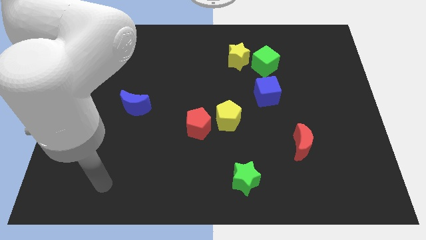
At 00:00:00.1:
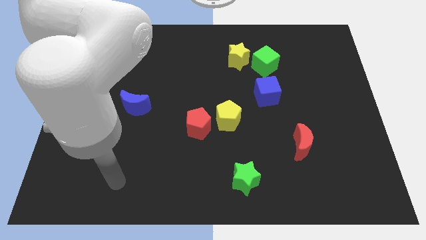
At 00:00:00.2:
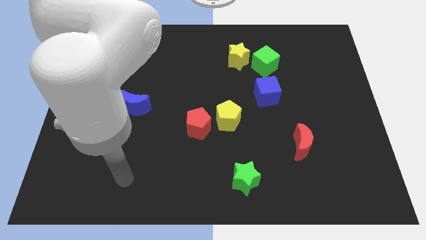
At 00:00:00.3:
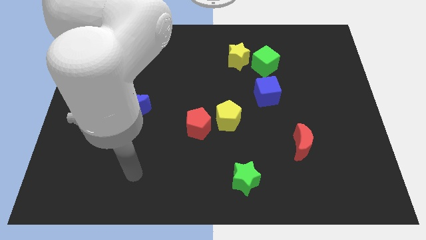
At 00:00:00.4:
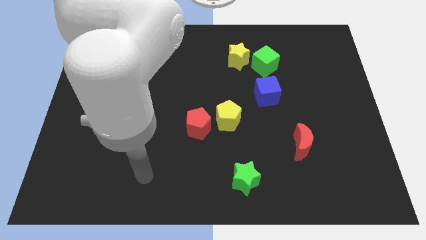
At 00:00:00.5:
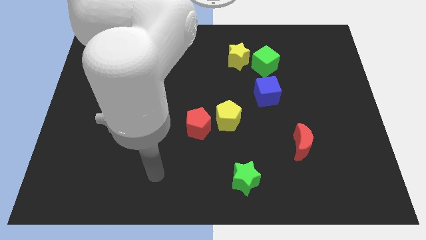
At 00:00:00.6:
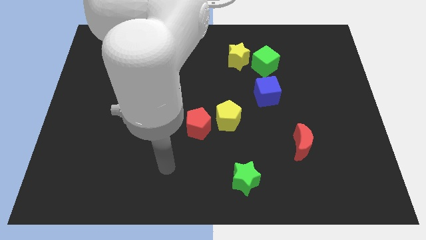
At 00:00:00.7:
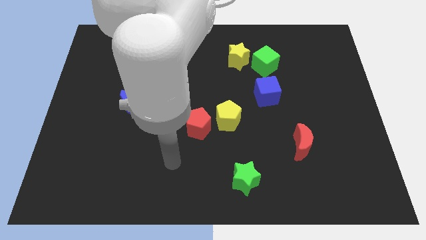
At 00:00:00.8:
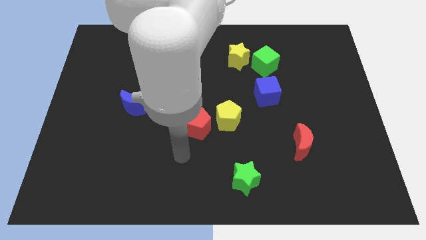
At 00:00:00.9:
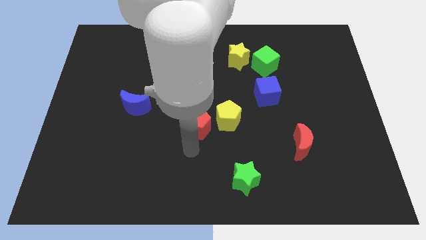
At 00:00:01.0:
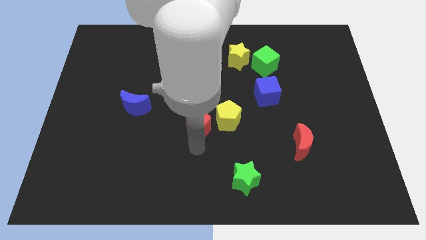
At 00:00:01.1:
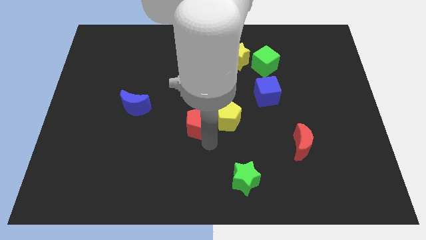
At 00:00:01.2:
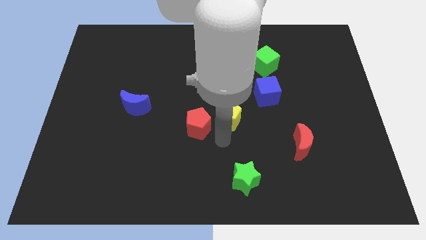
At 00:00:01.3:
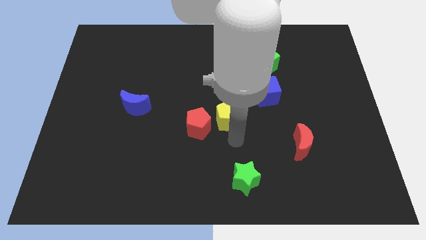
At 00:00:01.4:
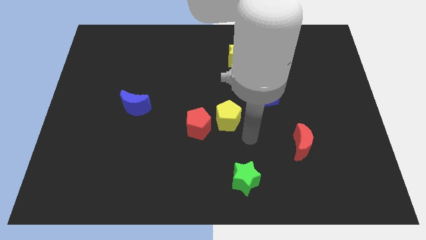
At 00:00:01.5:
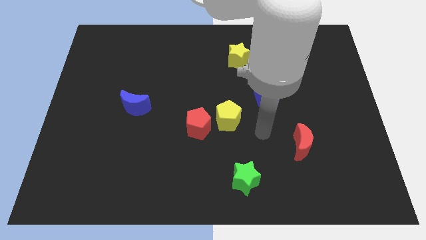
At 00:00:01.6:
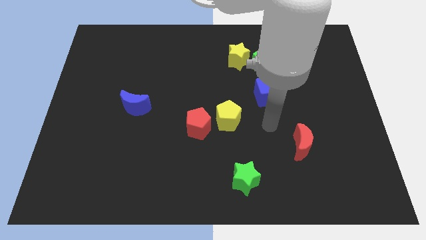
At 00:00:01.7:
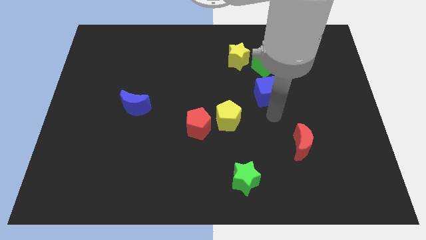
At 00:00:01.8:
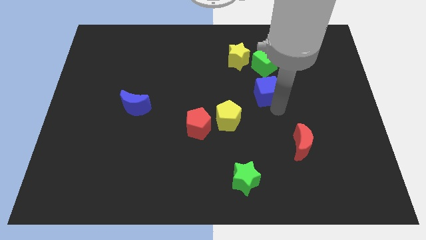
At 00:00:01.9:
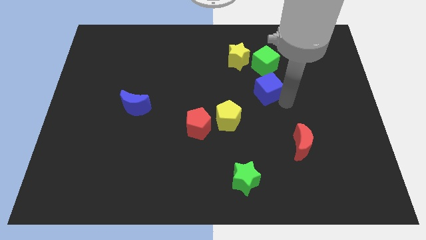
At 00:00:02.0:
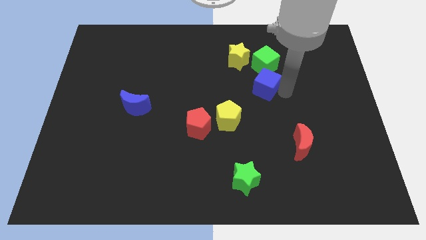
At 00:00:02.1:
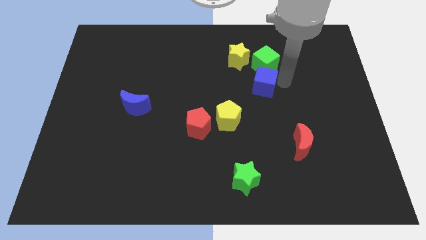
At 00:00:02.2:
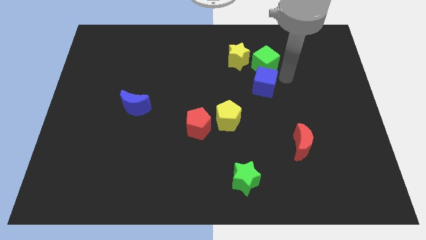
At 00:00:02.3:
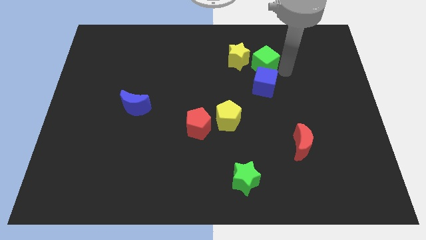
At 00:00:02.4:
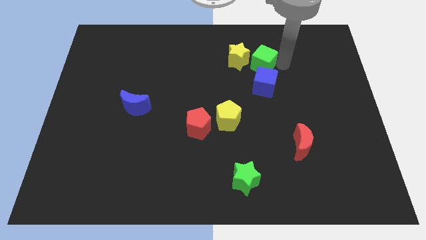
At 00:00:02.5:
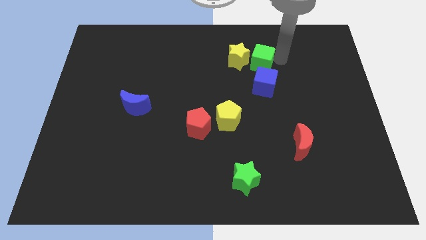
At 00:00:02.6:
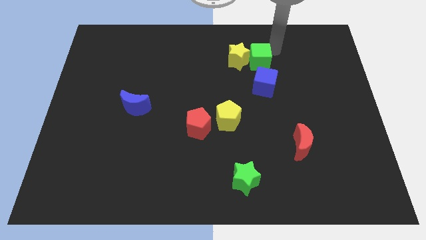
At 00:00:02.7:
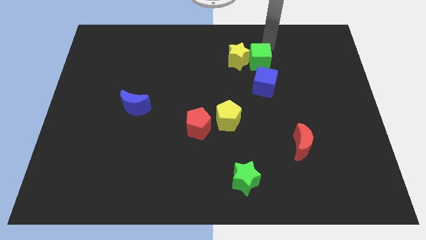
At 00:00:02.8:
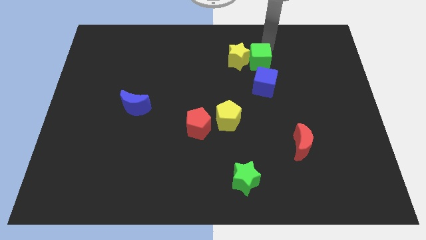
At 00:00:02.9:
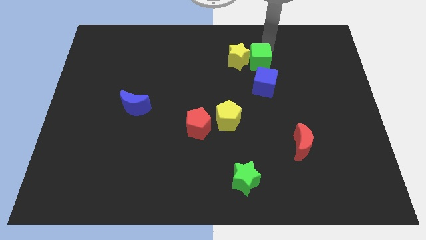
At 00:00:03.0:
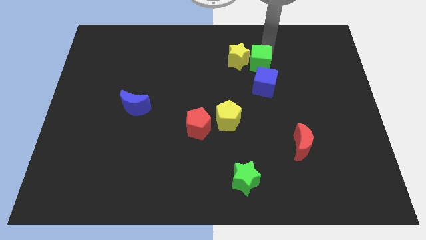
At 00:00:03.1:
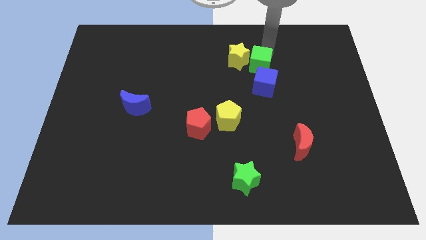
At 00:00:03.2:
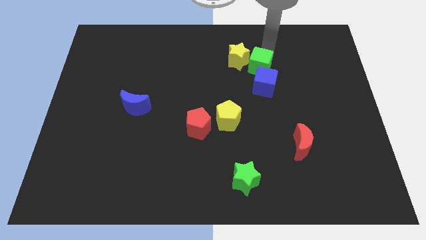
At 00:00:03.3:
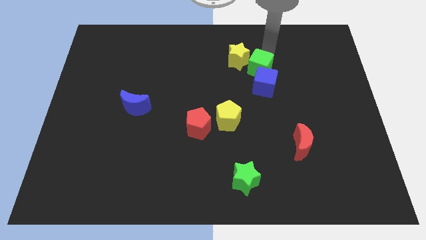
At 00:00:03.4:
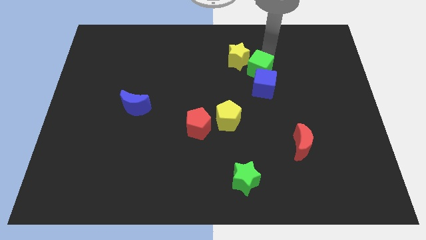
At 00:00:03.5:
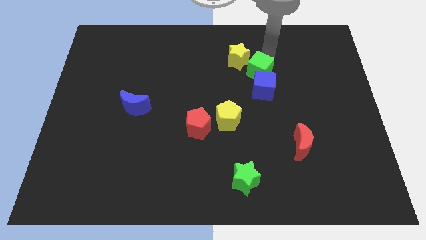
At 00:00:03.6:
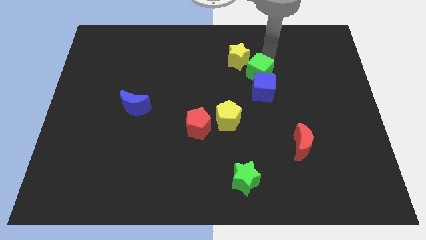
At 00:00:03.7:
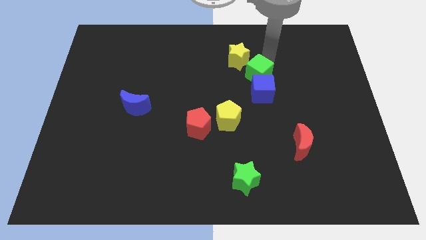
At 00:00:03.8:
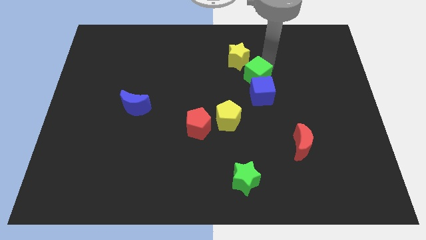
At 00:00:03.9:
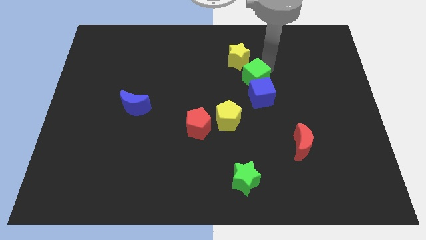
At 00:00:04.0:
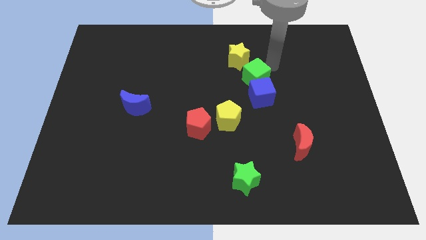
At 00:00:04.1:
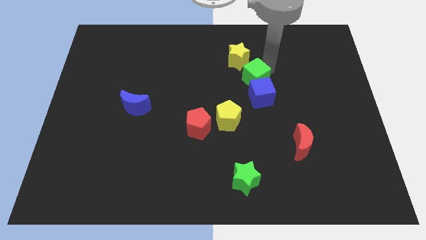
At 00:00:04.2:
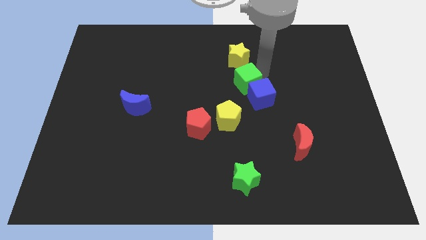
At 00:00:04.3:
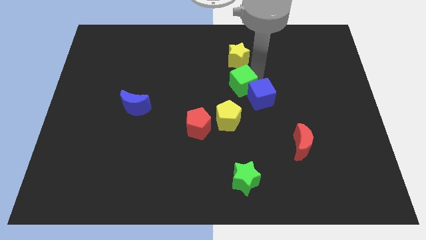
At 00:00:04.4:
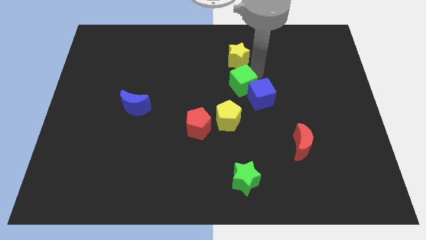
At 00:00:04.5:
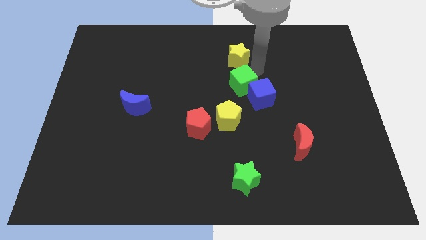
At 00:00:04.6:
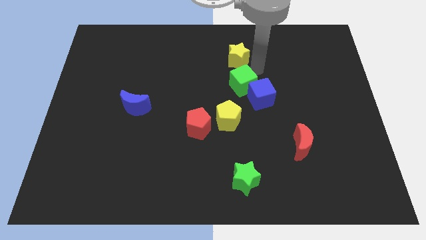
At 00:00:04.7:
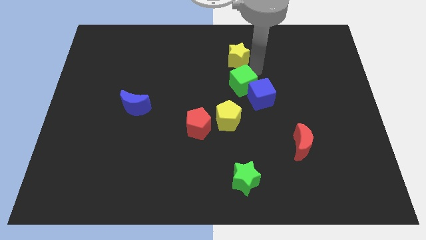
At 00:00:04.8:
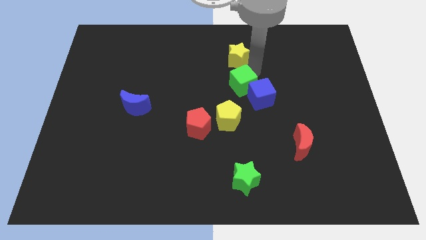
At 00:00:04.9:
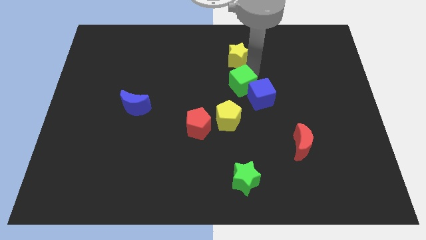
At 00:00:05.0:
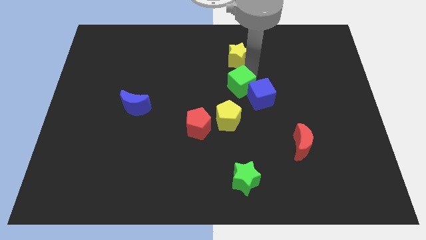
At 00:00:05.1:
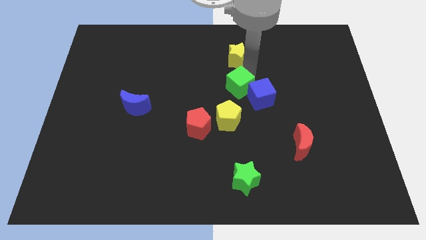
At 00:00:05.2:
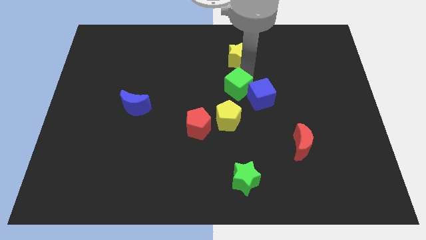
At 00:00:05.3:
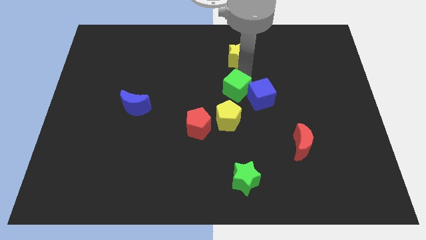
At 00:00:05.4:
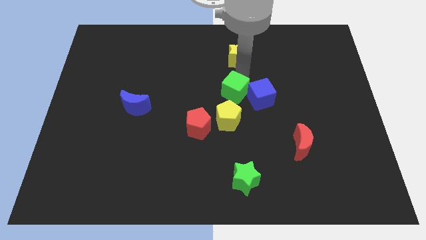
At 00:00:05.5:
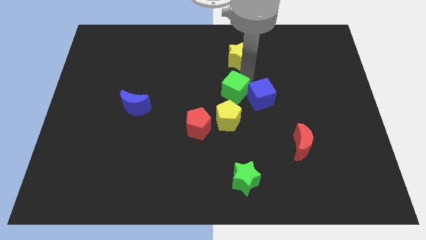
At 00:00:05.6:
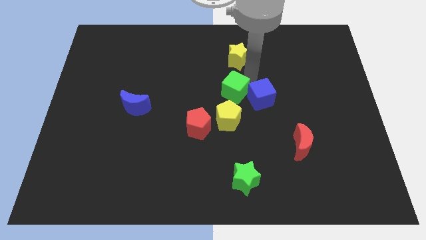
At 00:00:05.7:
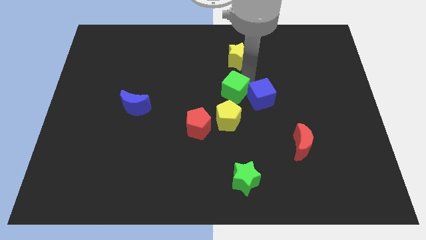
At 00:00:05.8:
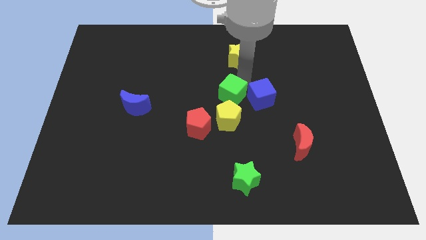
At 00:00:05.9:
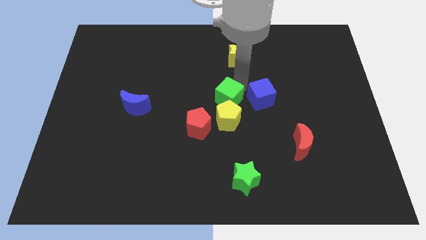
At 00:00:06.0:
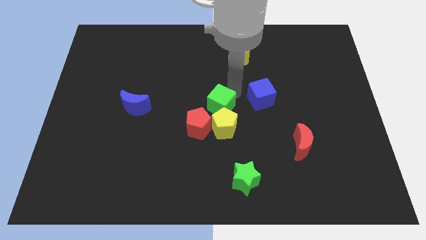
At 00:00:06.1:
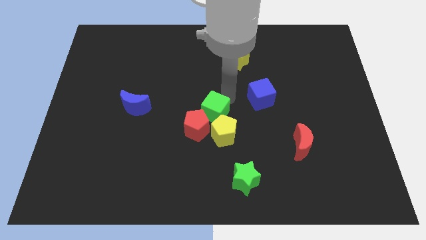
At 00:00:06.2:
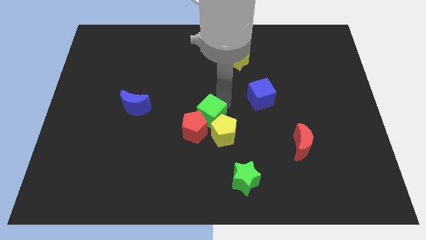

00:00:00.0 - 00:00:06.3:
slide the green cube next to the red pentagon
